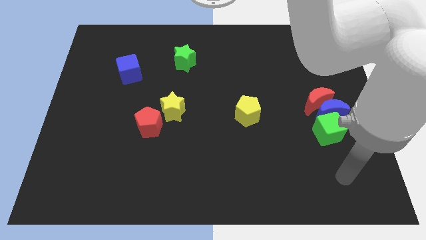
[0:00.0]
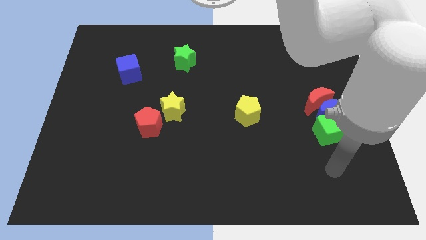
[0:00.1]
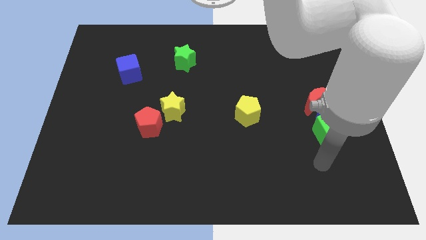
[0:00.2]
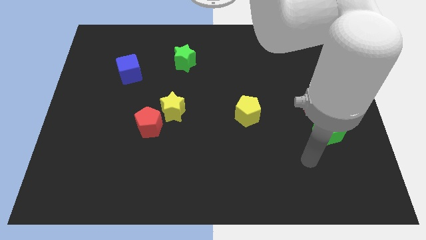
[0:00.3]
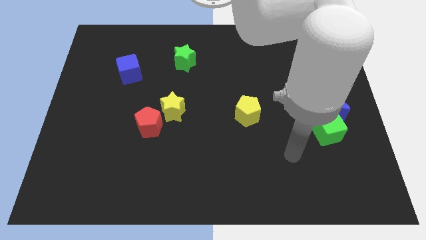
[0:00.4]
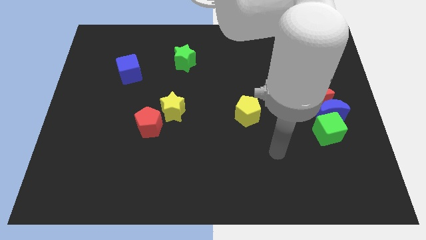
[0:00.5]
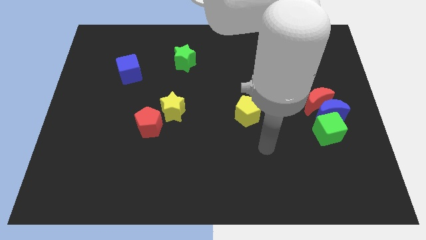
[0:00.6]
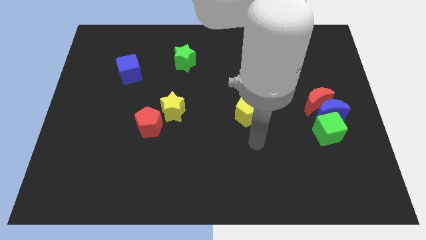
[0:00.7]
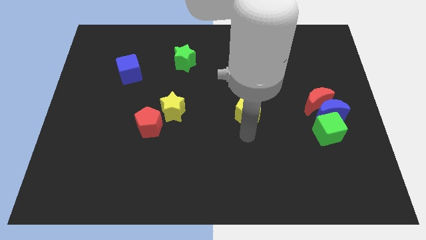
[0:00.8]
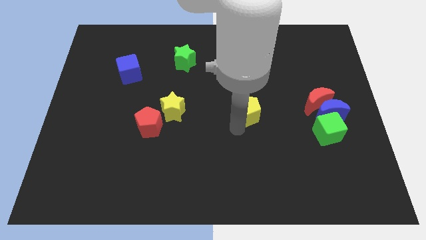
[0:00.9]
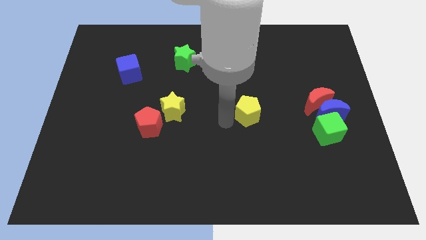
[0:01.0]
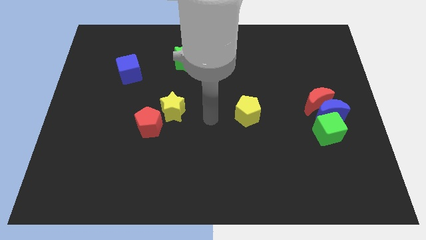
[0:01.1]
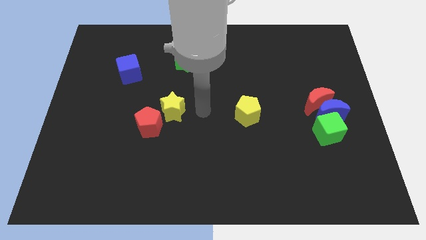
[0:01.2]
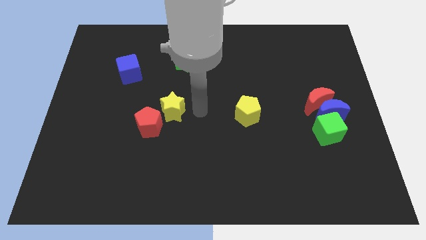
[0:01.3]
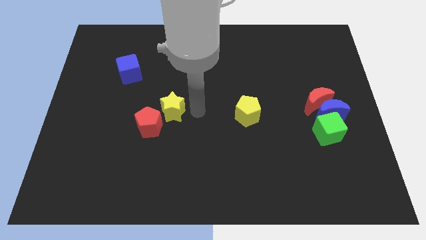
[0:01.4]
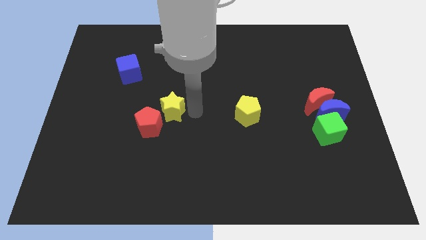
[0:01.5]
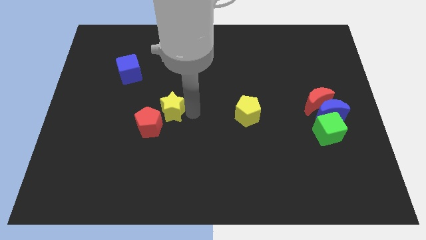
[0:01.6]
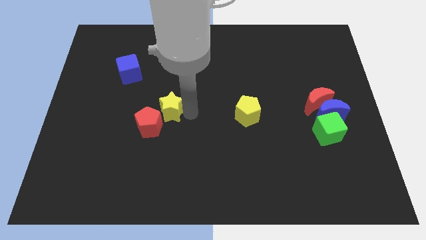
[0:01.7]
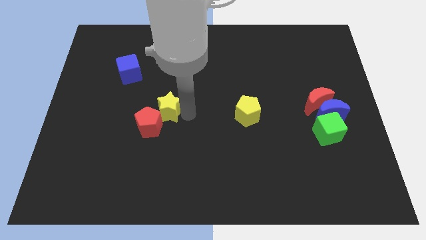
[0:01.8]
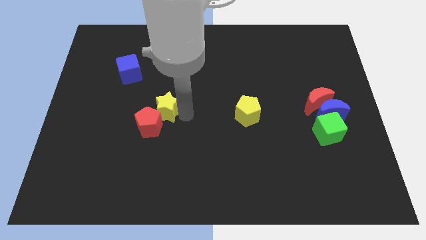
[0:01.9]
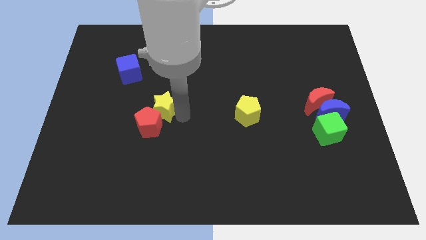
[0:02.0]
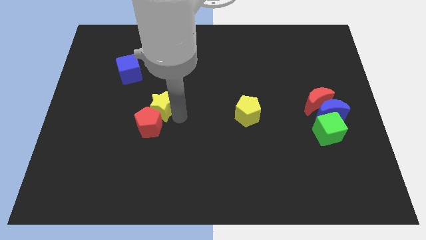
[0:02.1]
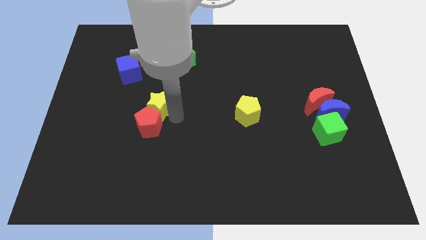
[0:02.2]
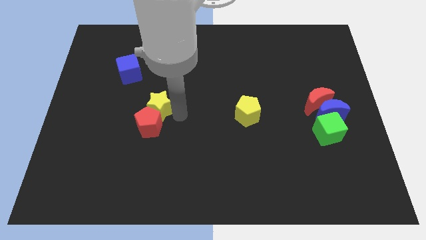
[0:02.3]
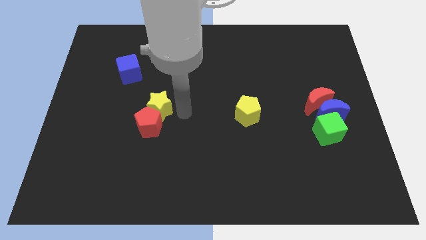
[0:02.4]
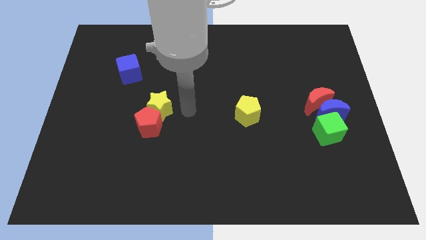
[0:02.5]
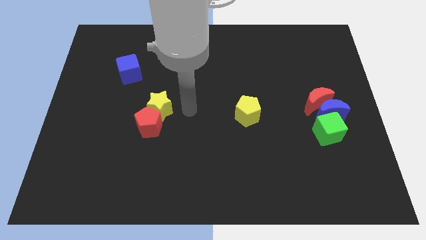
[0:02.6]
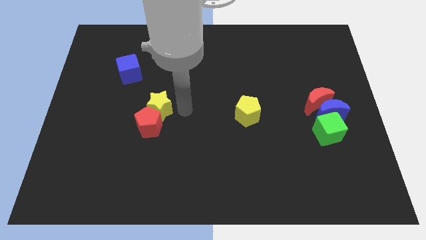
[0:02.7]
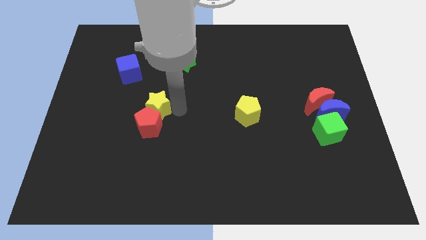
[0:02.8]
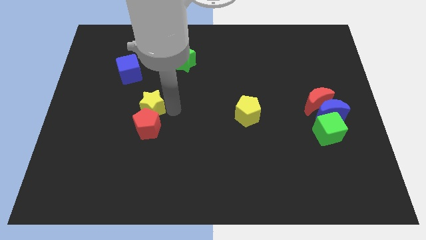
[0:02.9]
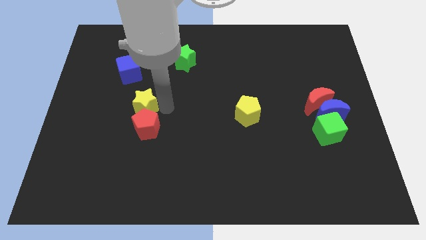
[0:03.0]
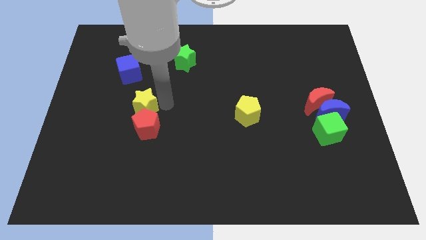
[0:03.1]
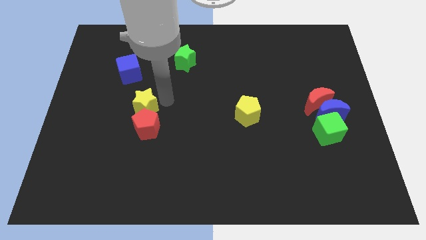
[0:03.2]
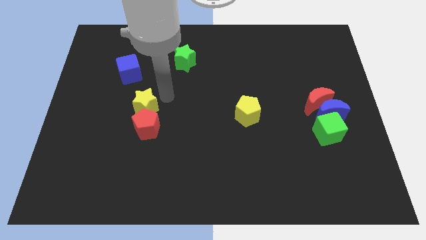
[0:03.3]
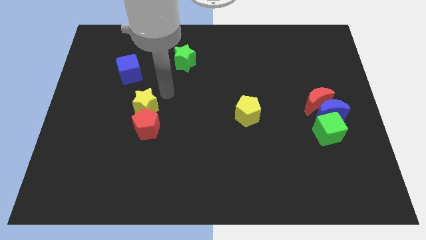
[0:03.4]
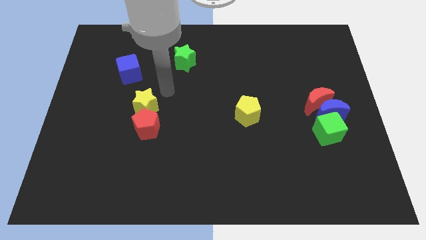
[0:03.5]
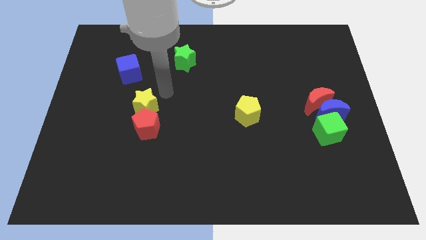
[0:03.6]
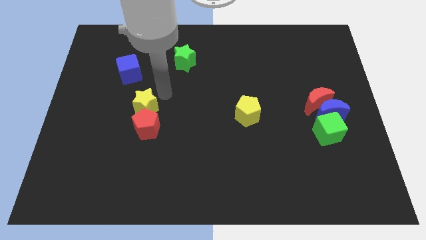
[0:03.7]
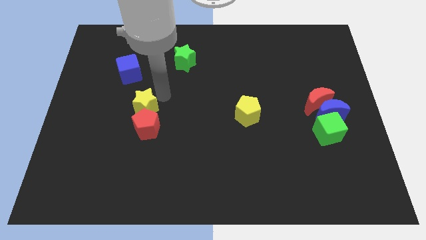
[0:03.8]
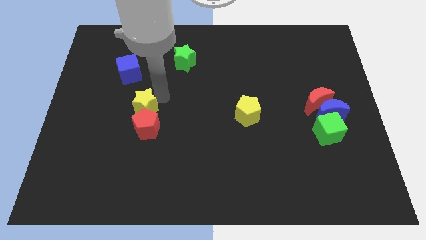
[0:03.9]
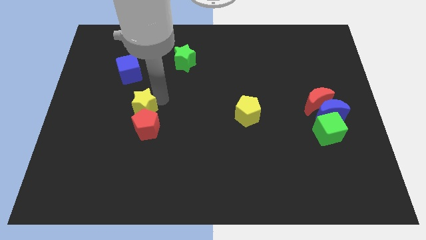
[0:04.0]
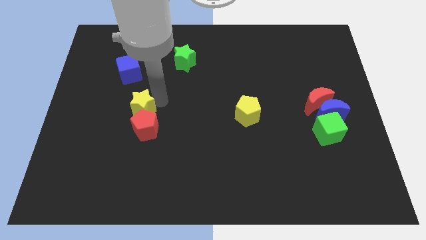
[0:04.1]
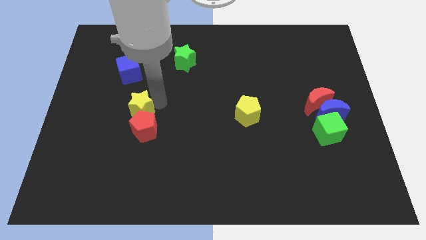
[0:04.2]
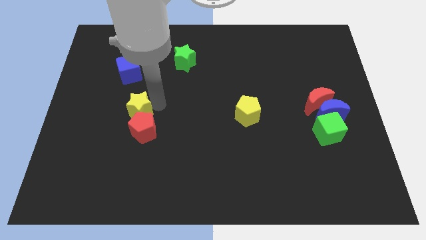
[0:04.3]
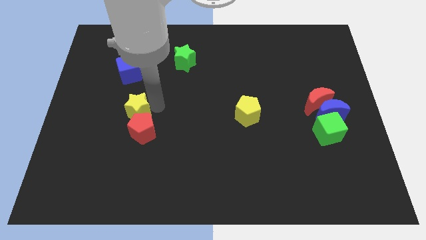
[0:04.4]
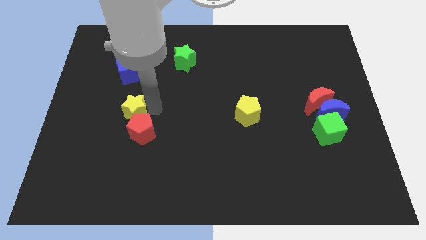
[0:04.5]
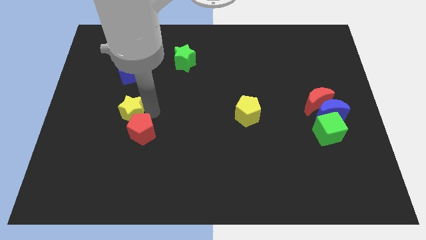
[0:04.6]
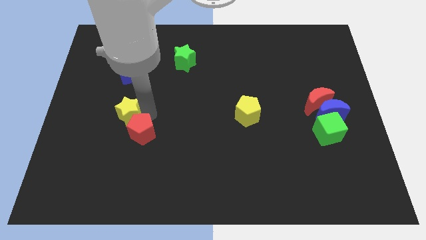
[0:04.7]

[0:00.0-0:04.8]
slightly move the yellow star down and then left

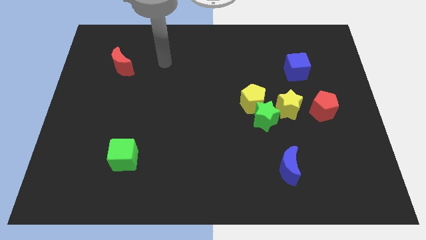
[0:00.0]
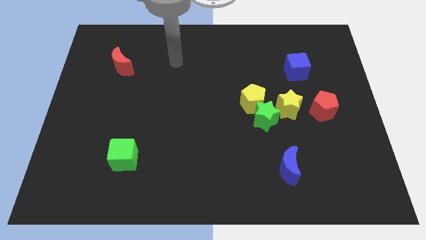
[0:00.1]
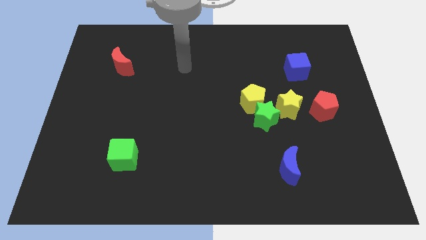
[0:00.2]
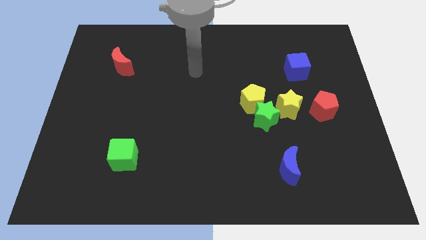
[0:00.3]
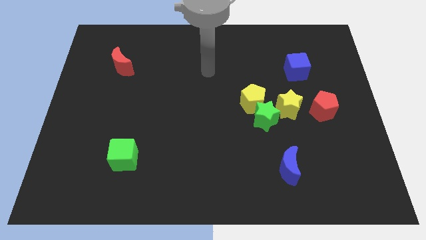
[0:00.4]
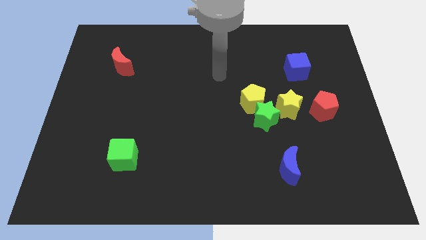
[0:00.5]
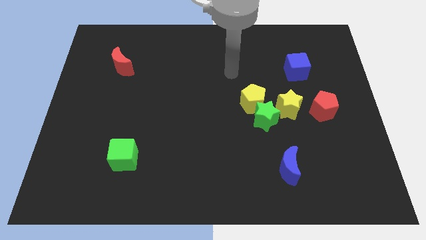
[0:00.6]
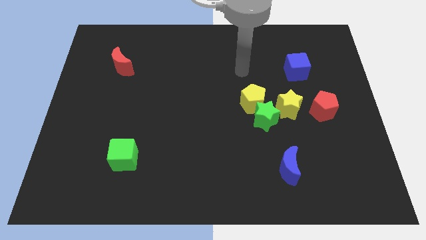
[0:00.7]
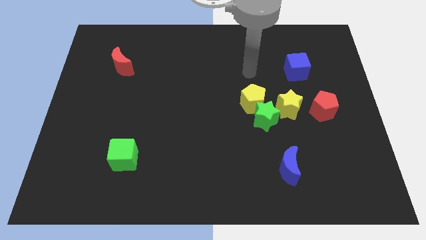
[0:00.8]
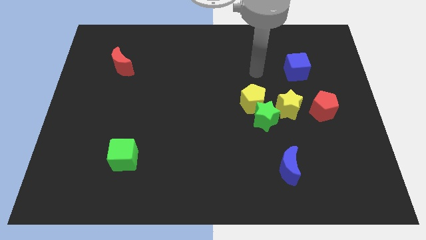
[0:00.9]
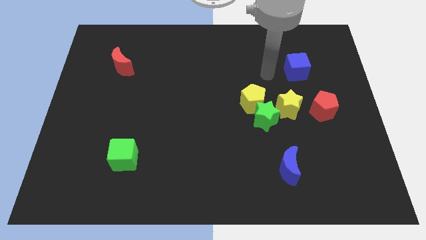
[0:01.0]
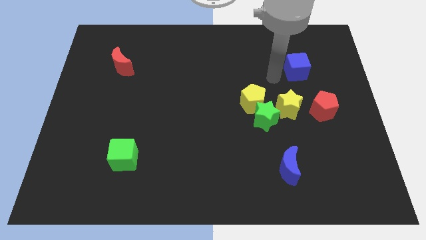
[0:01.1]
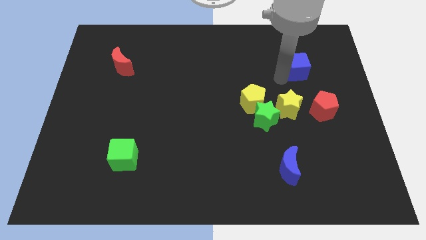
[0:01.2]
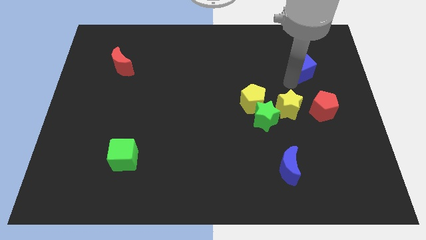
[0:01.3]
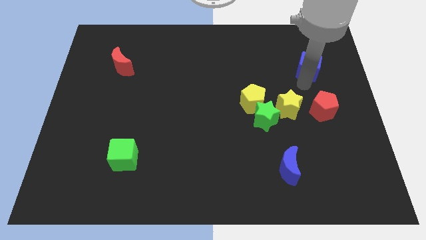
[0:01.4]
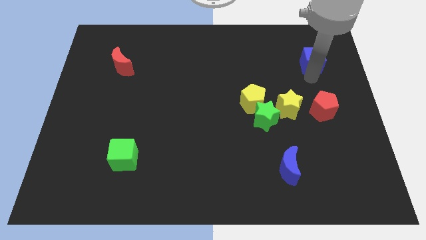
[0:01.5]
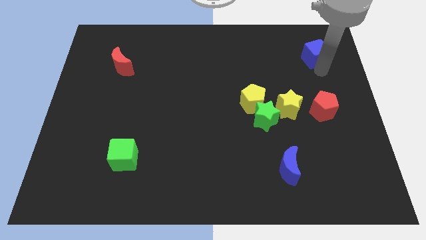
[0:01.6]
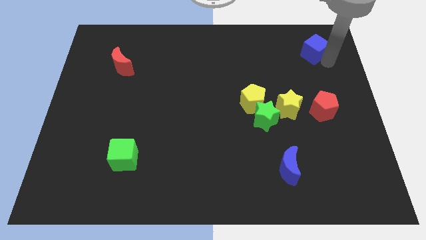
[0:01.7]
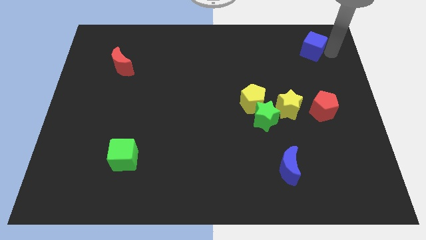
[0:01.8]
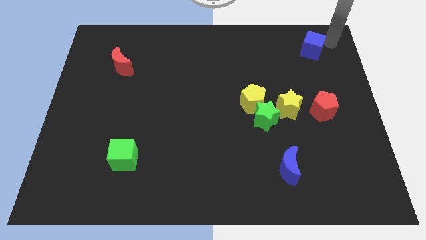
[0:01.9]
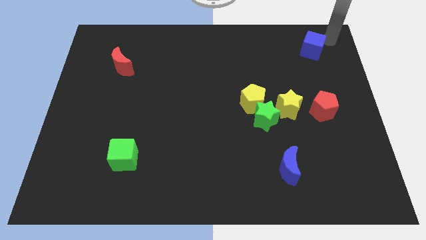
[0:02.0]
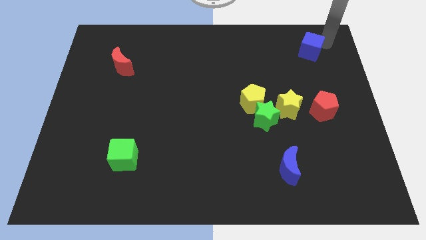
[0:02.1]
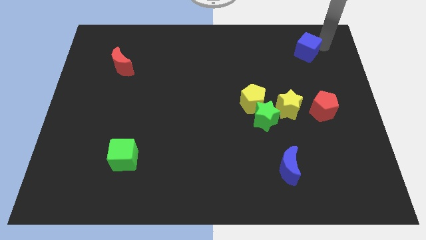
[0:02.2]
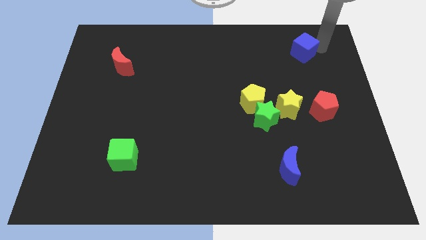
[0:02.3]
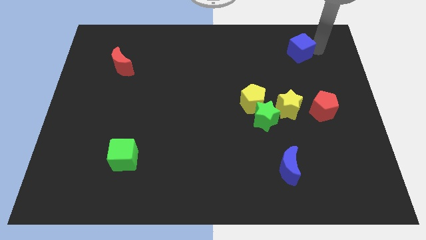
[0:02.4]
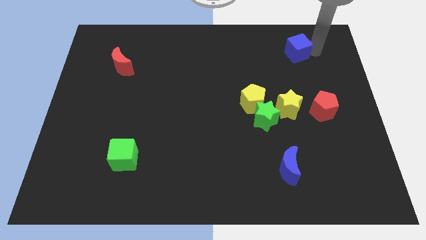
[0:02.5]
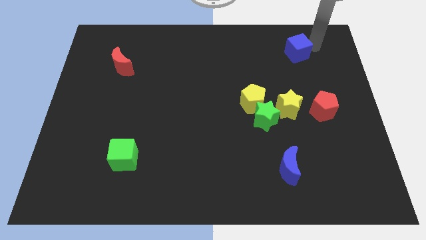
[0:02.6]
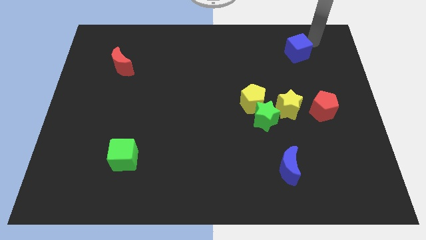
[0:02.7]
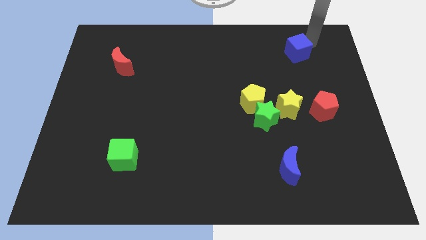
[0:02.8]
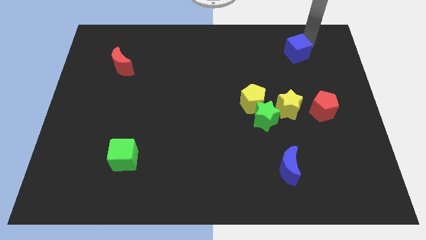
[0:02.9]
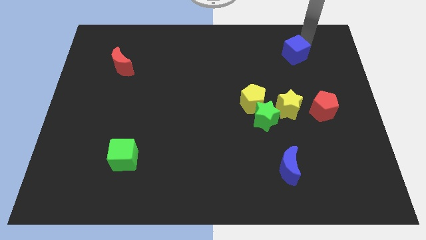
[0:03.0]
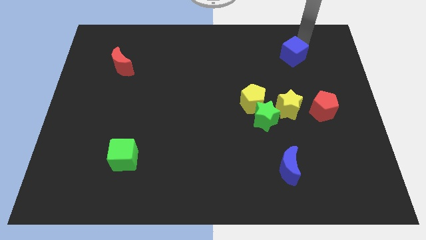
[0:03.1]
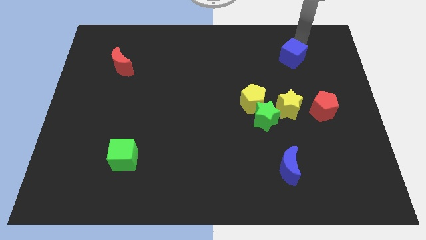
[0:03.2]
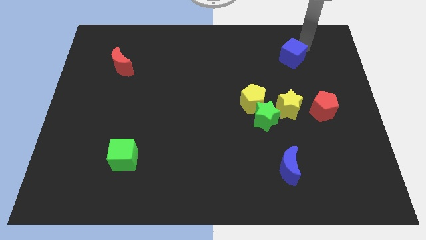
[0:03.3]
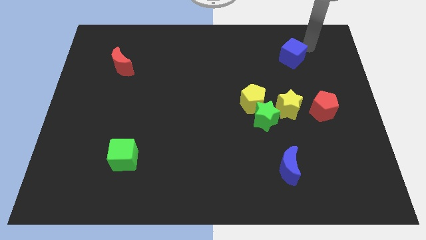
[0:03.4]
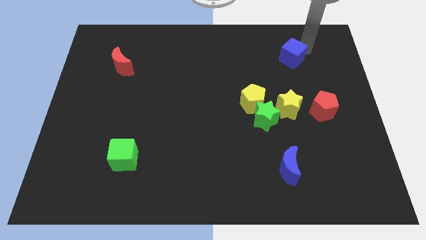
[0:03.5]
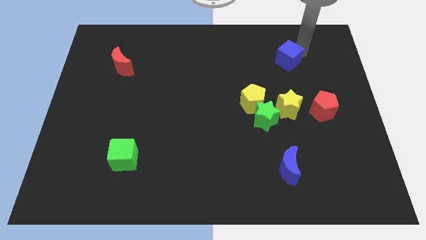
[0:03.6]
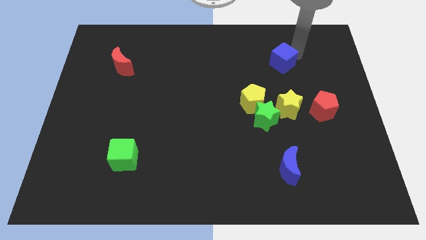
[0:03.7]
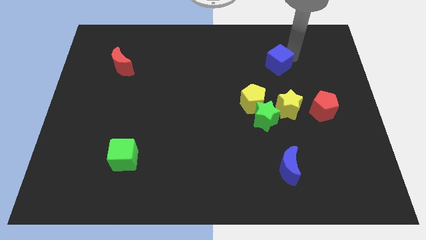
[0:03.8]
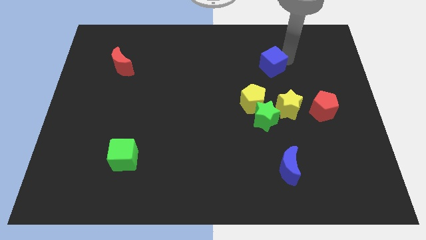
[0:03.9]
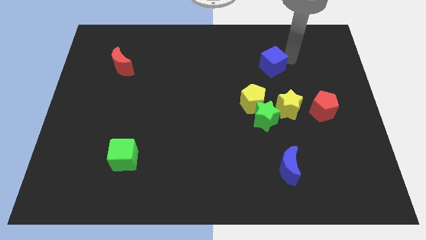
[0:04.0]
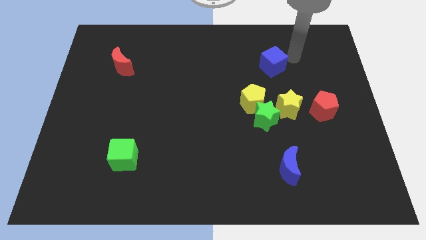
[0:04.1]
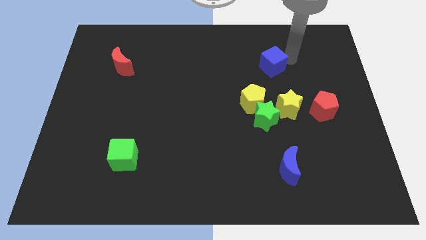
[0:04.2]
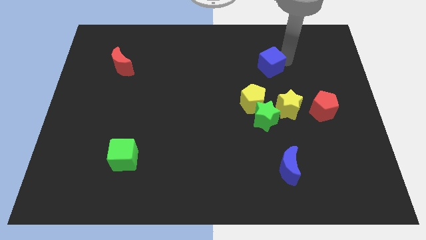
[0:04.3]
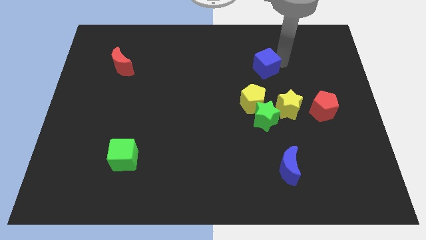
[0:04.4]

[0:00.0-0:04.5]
slightly slide the blue cube left
